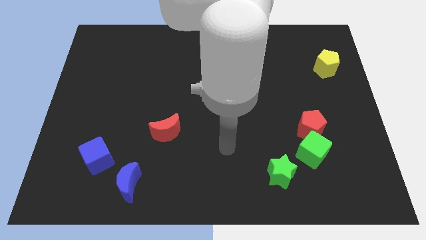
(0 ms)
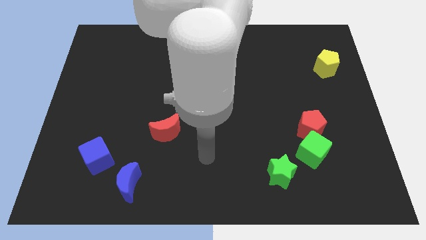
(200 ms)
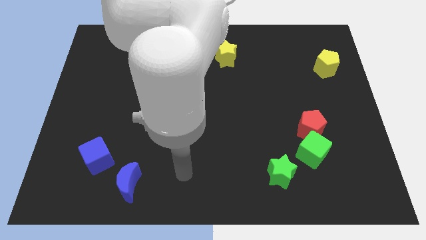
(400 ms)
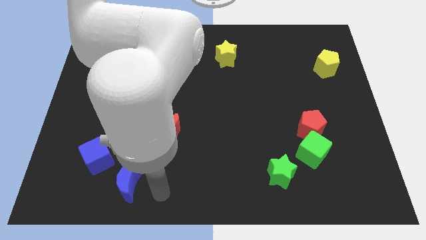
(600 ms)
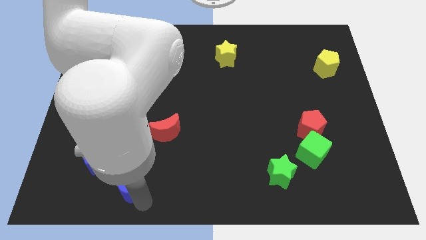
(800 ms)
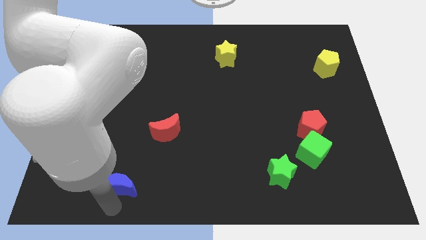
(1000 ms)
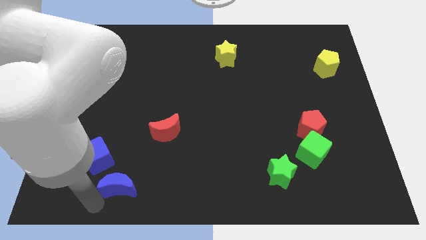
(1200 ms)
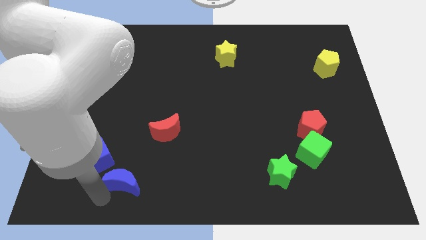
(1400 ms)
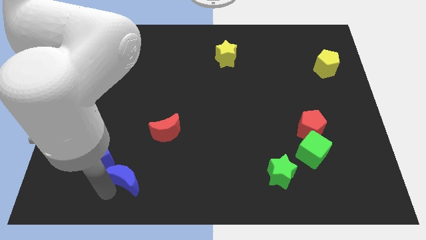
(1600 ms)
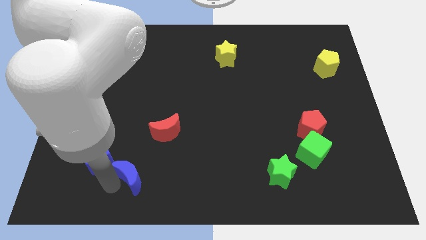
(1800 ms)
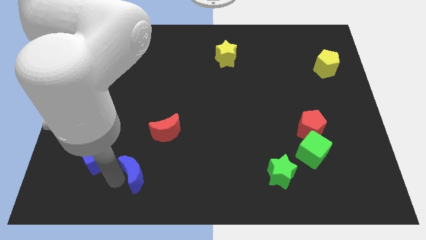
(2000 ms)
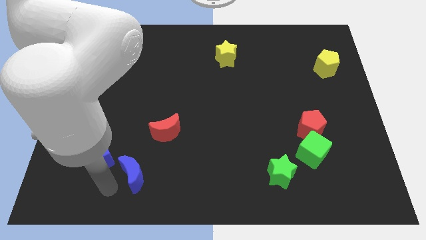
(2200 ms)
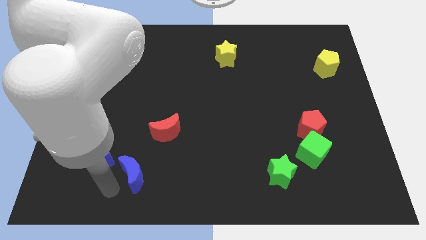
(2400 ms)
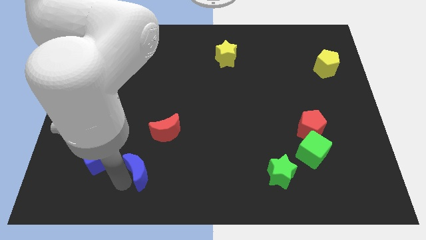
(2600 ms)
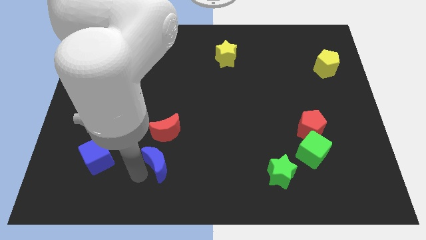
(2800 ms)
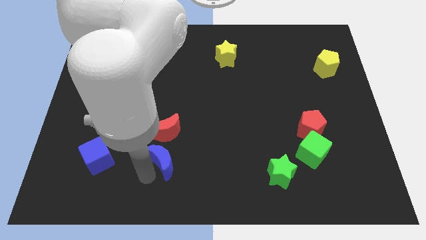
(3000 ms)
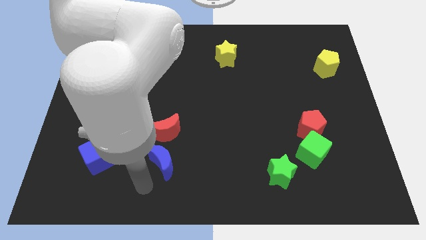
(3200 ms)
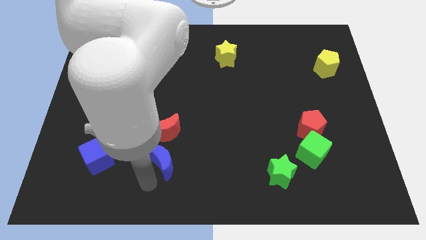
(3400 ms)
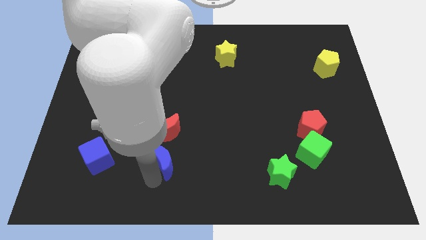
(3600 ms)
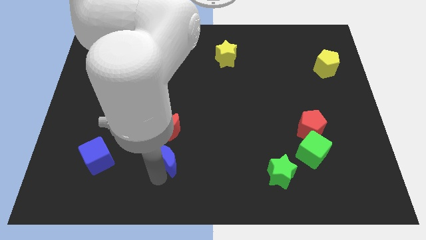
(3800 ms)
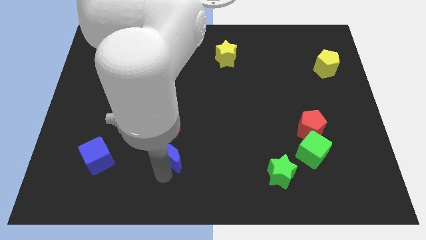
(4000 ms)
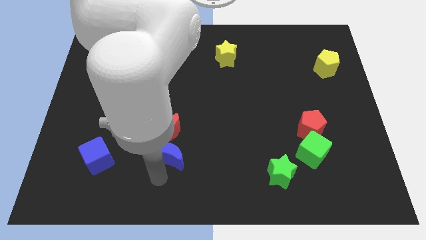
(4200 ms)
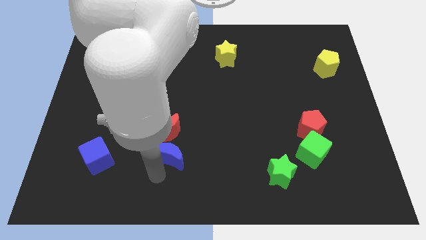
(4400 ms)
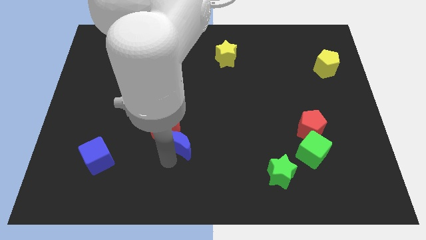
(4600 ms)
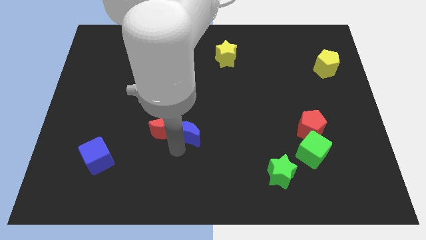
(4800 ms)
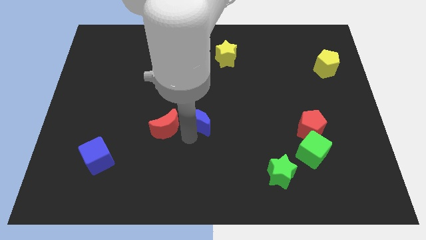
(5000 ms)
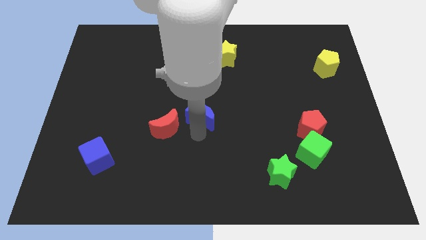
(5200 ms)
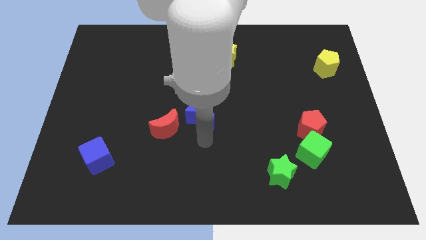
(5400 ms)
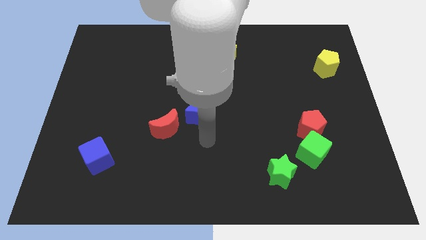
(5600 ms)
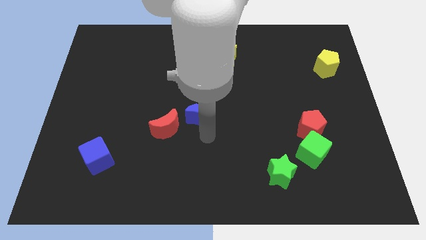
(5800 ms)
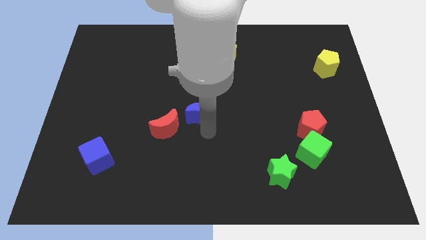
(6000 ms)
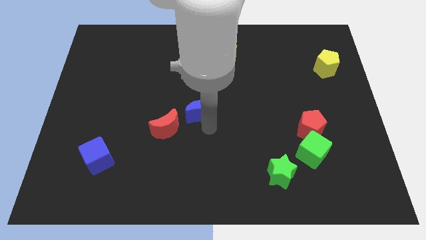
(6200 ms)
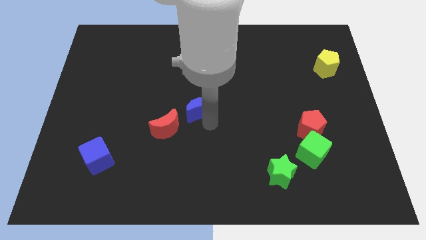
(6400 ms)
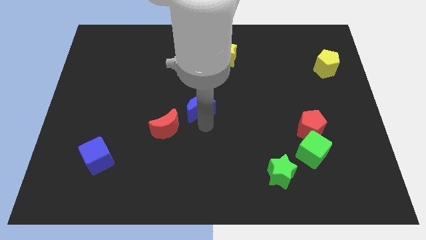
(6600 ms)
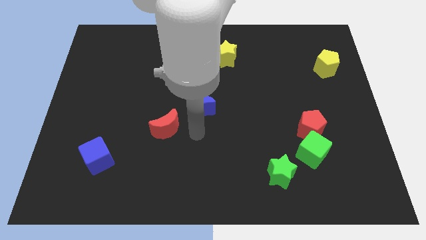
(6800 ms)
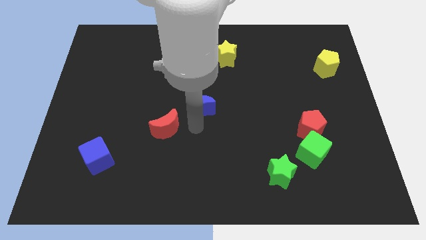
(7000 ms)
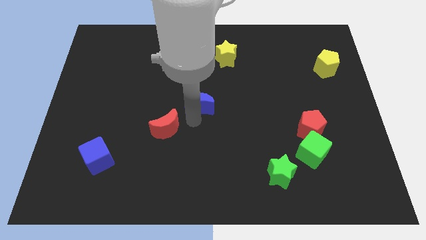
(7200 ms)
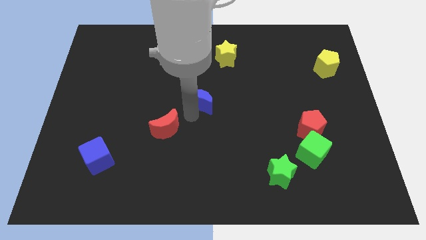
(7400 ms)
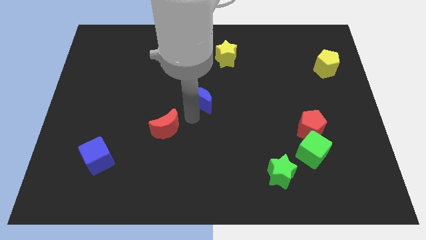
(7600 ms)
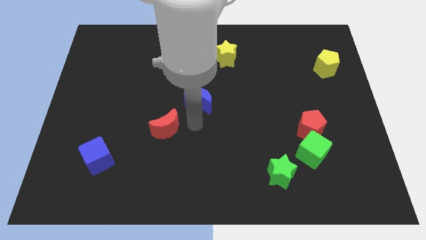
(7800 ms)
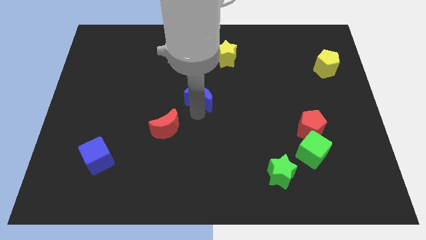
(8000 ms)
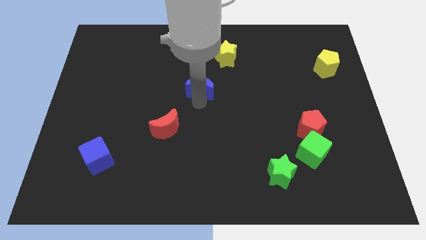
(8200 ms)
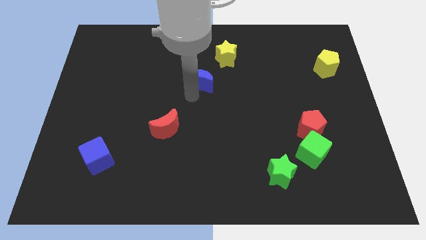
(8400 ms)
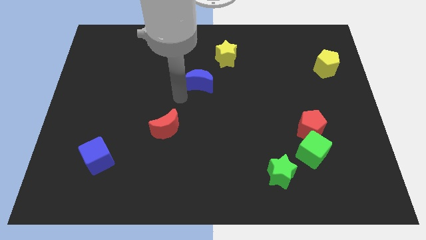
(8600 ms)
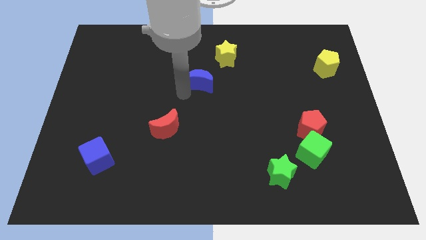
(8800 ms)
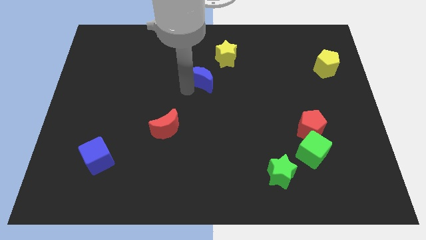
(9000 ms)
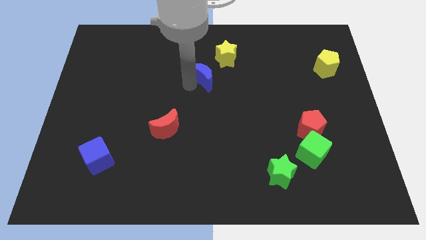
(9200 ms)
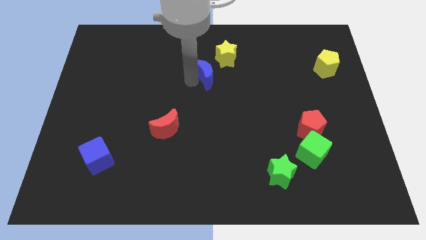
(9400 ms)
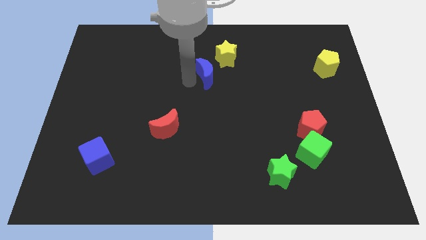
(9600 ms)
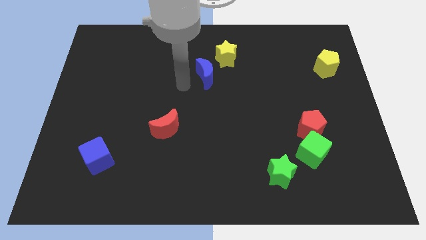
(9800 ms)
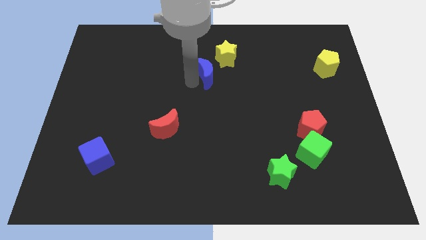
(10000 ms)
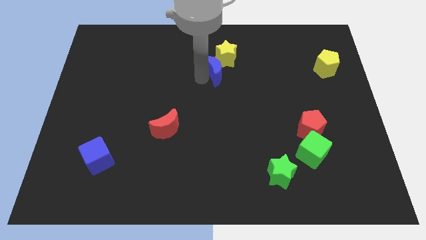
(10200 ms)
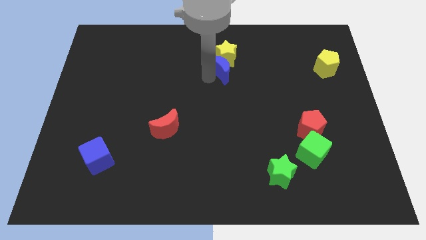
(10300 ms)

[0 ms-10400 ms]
put the blue moon next to the yellow star

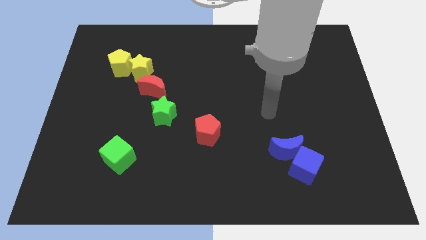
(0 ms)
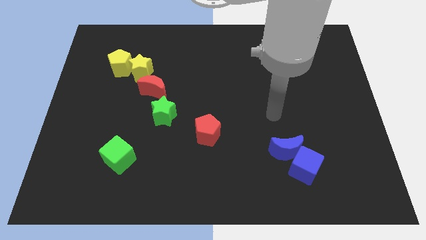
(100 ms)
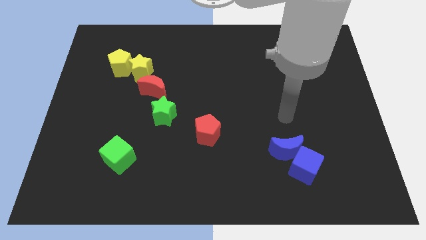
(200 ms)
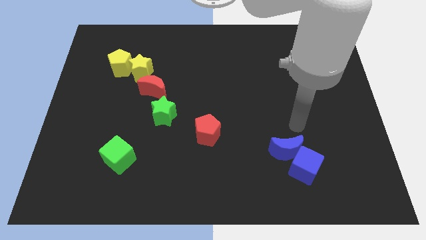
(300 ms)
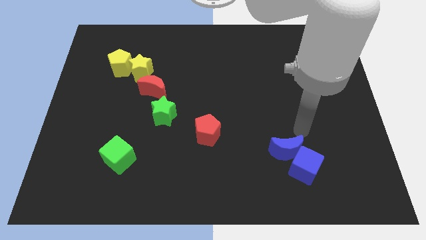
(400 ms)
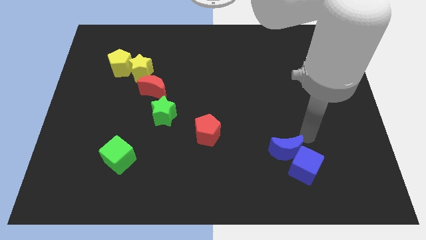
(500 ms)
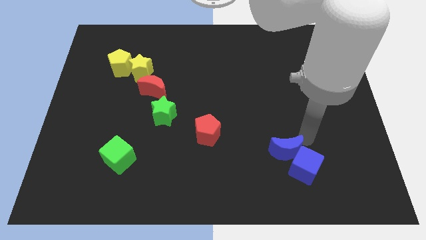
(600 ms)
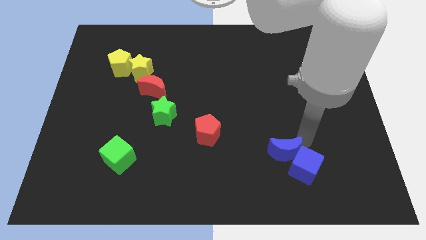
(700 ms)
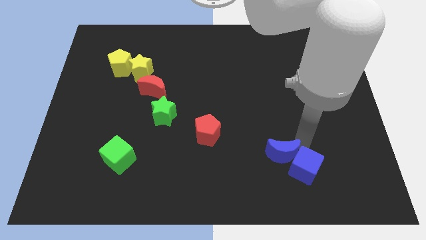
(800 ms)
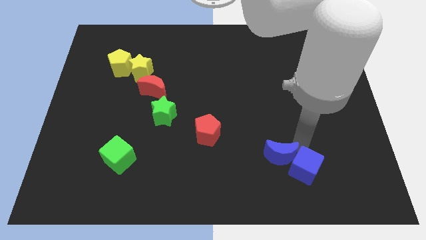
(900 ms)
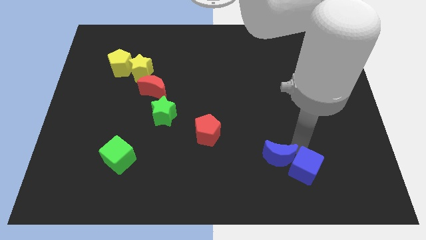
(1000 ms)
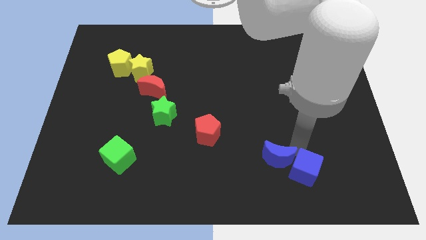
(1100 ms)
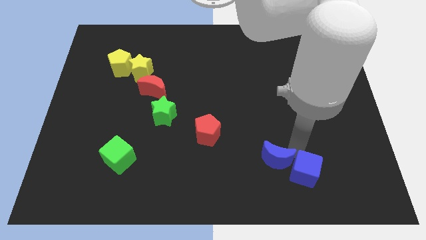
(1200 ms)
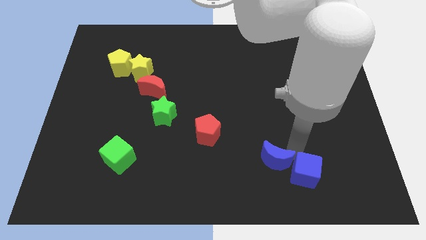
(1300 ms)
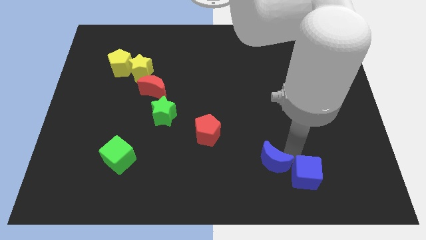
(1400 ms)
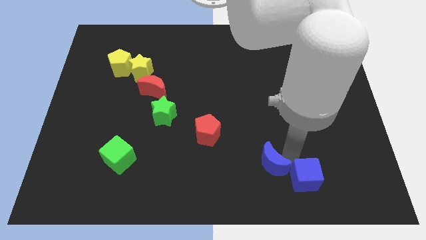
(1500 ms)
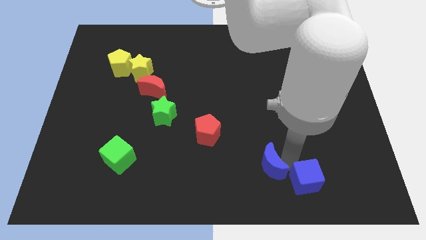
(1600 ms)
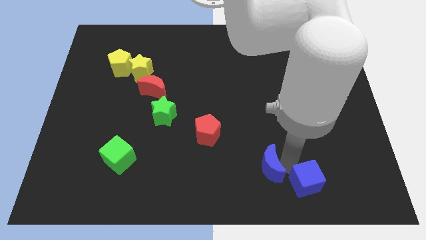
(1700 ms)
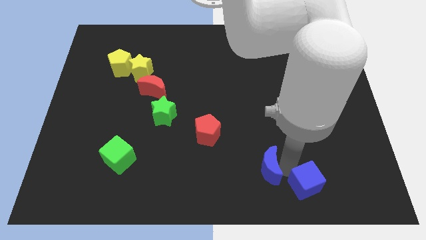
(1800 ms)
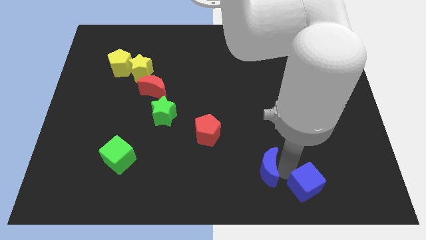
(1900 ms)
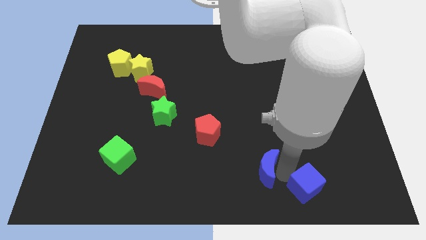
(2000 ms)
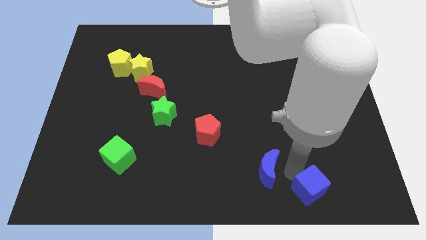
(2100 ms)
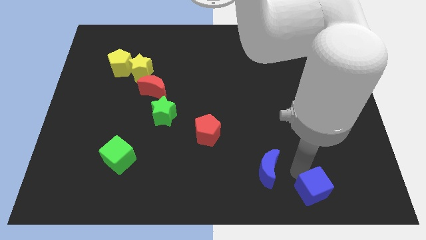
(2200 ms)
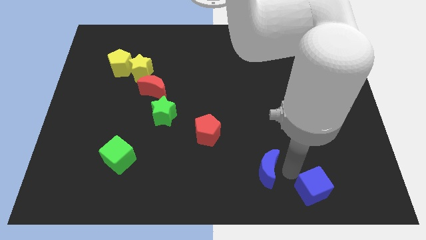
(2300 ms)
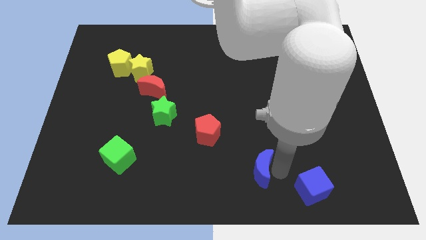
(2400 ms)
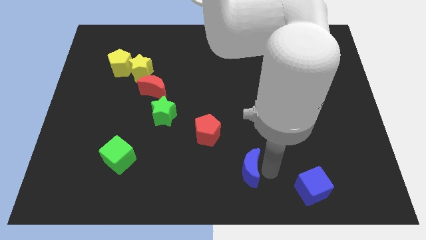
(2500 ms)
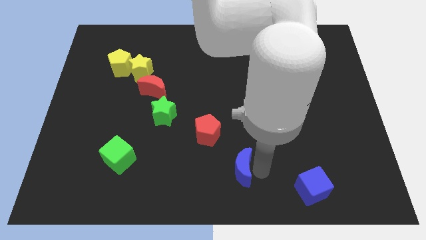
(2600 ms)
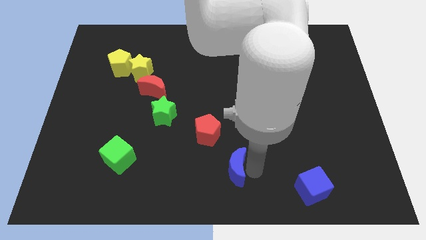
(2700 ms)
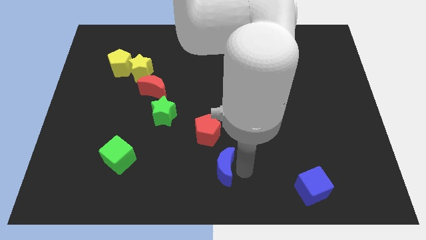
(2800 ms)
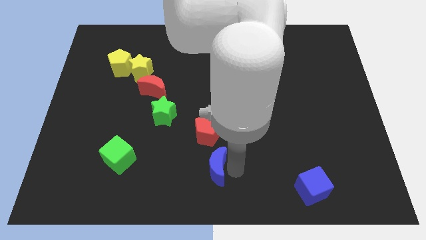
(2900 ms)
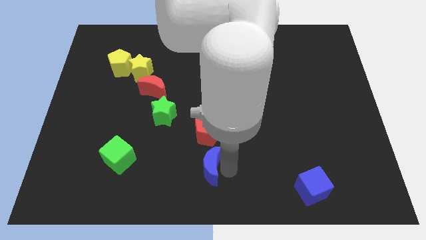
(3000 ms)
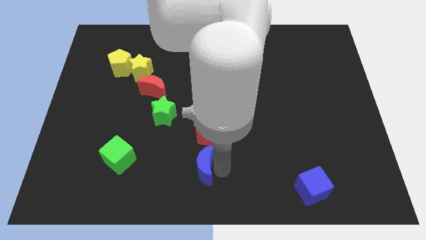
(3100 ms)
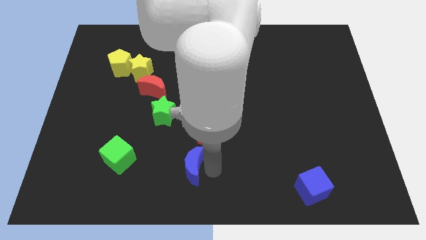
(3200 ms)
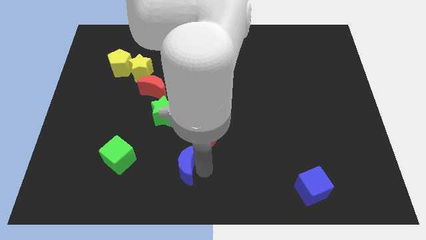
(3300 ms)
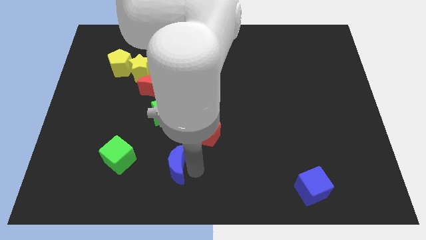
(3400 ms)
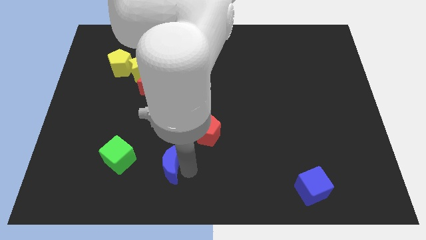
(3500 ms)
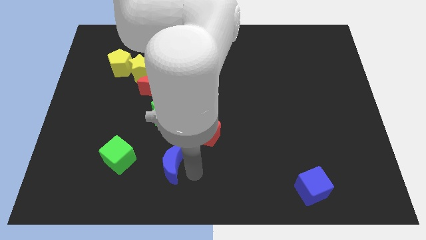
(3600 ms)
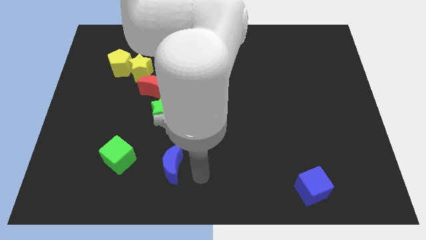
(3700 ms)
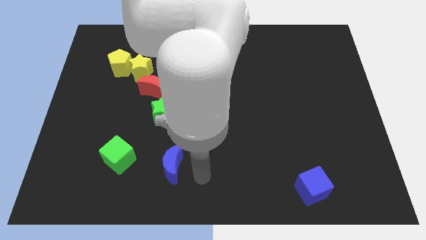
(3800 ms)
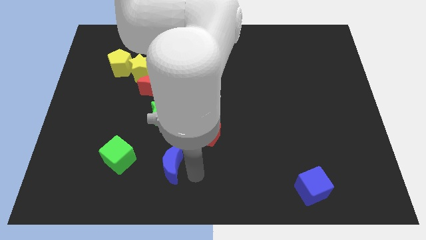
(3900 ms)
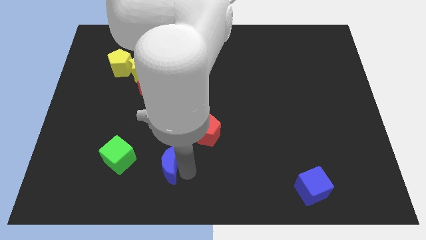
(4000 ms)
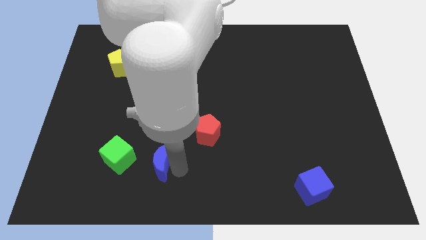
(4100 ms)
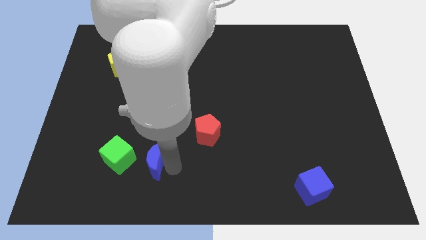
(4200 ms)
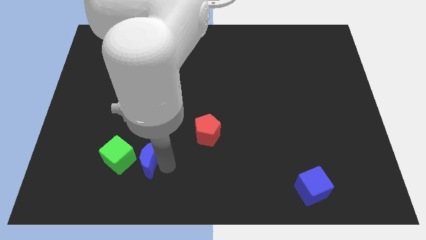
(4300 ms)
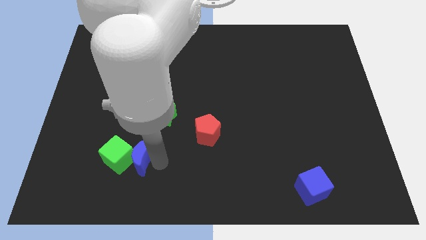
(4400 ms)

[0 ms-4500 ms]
push the blue moon next to the green cube
